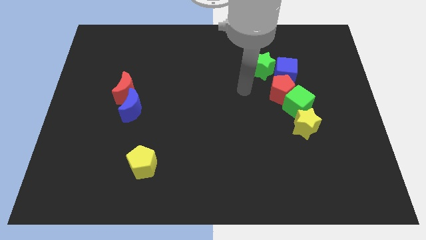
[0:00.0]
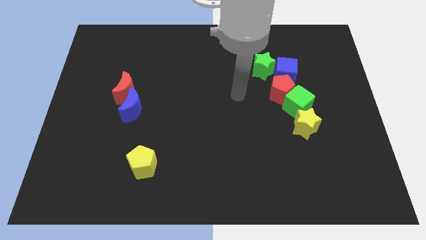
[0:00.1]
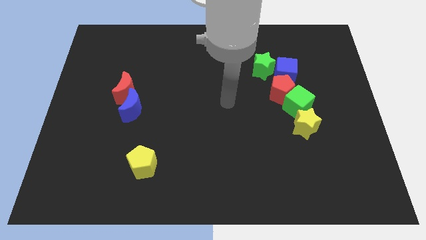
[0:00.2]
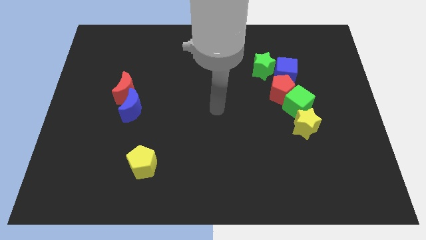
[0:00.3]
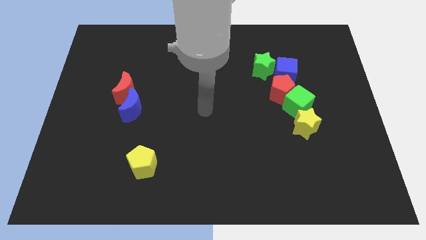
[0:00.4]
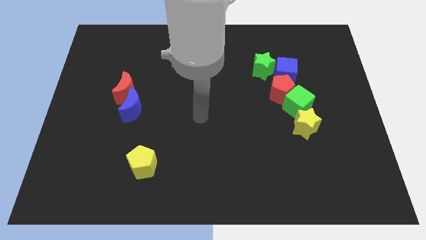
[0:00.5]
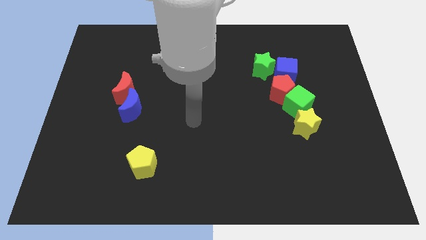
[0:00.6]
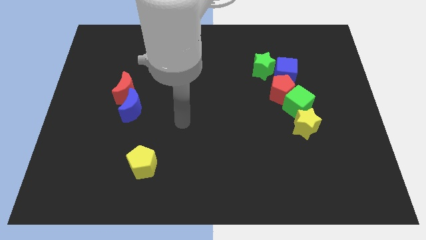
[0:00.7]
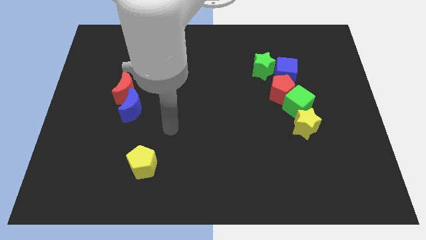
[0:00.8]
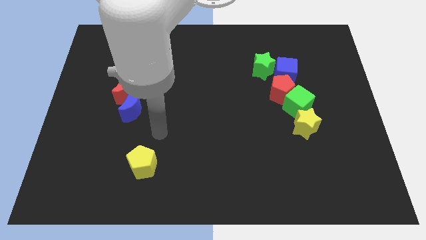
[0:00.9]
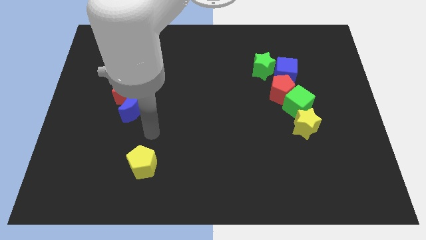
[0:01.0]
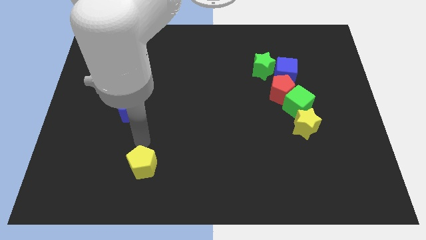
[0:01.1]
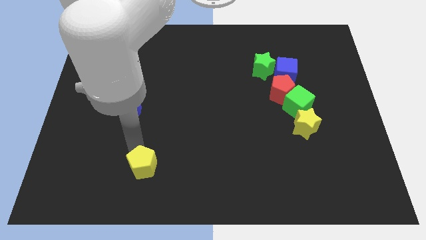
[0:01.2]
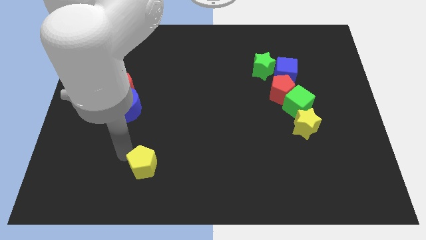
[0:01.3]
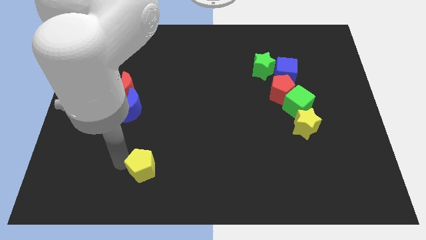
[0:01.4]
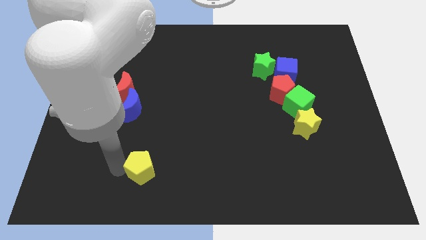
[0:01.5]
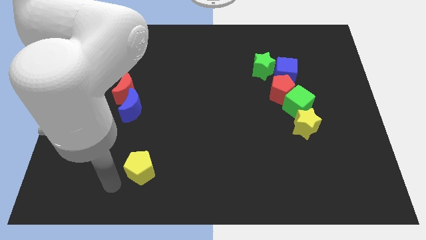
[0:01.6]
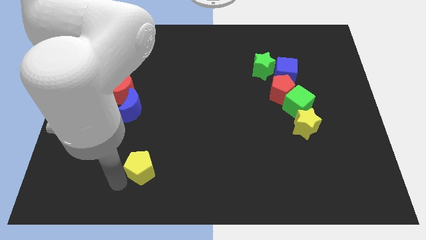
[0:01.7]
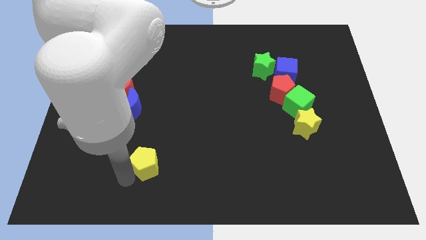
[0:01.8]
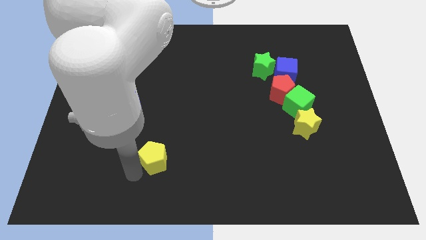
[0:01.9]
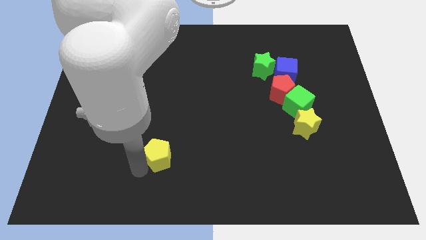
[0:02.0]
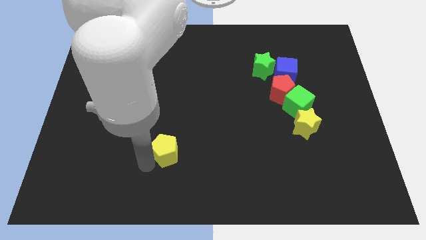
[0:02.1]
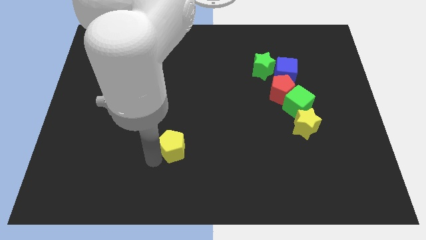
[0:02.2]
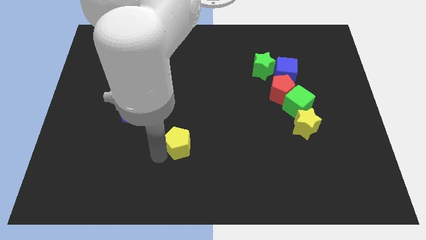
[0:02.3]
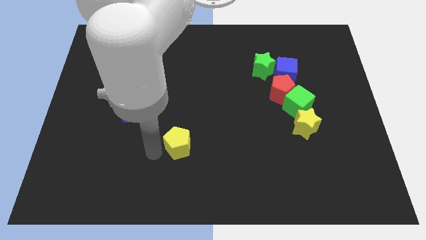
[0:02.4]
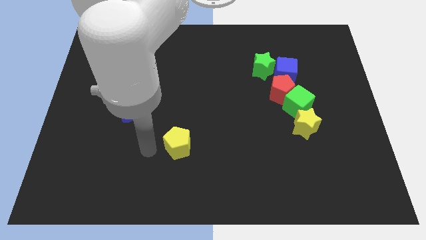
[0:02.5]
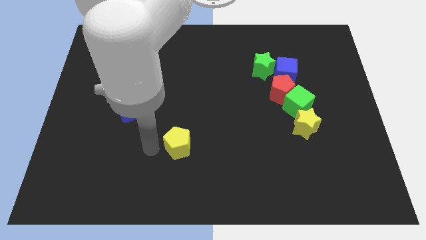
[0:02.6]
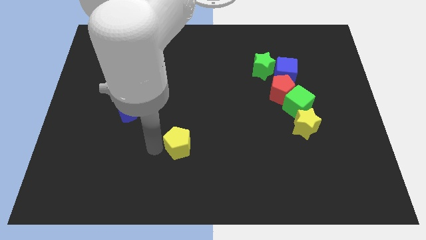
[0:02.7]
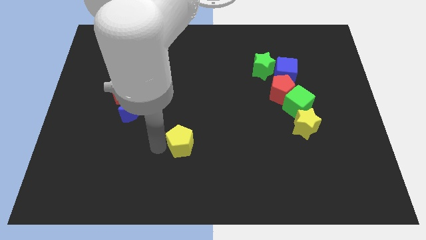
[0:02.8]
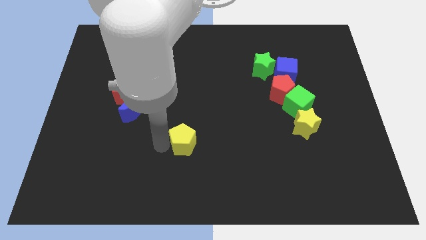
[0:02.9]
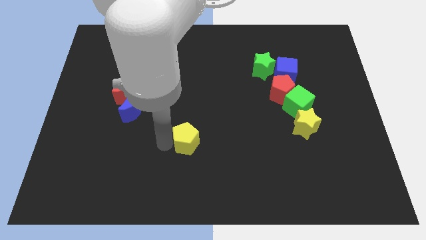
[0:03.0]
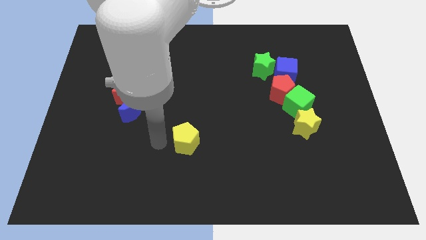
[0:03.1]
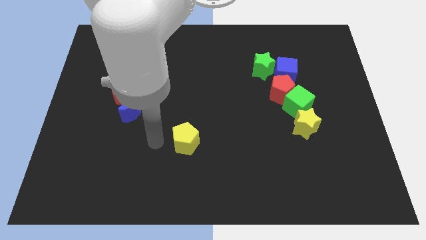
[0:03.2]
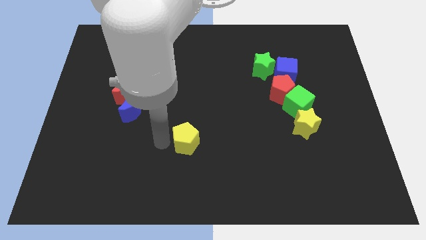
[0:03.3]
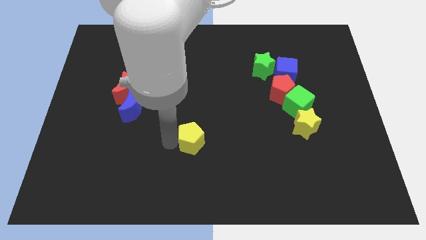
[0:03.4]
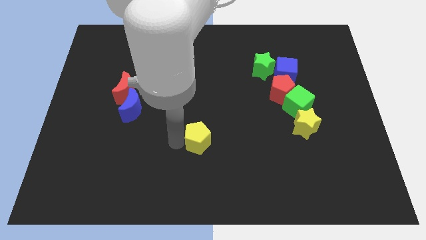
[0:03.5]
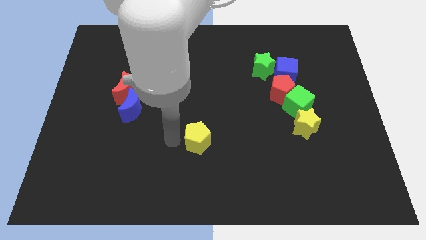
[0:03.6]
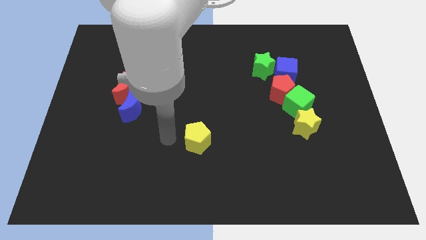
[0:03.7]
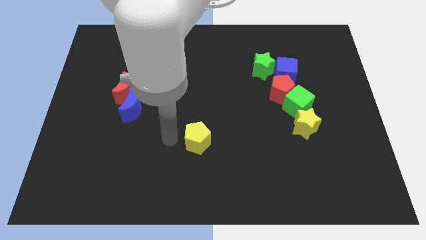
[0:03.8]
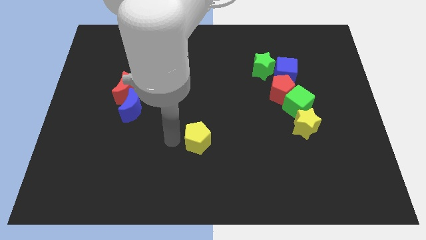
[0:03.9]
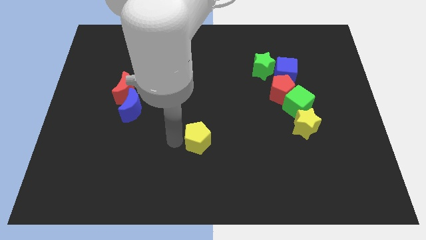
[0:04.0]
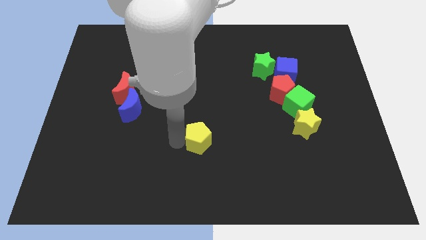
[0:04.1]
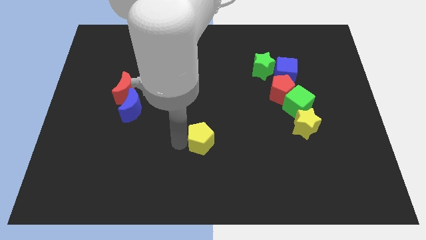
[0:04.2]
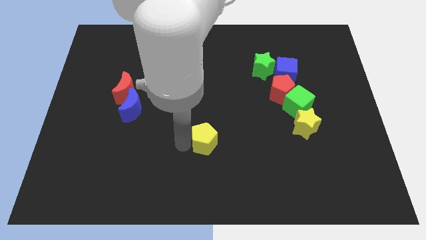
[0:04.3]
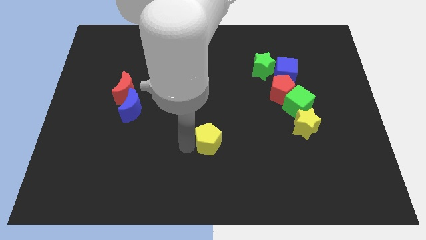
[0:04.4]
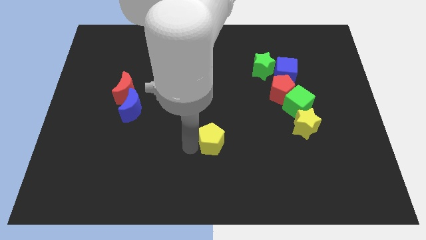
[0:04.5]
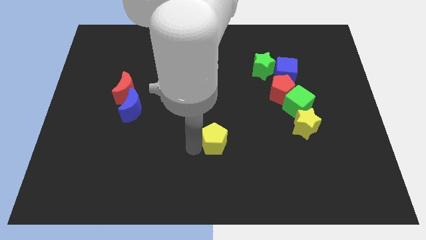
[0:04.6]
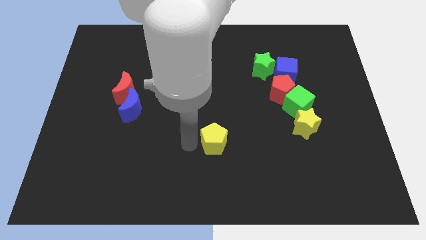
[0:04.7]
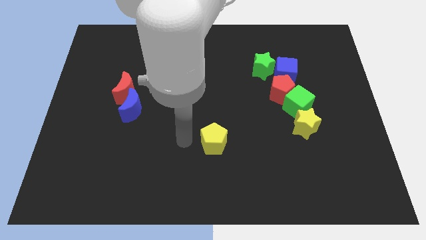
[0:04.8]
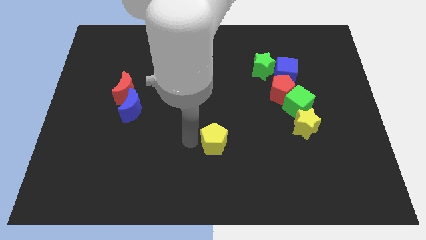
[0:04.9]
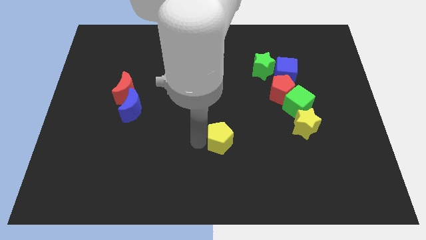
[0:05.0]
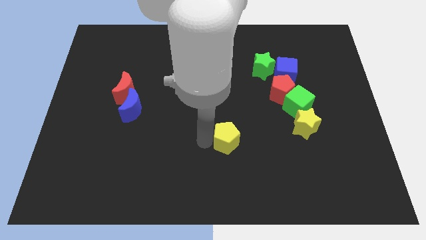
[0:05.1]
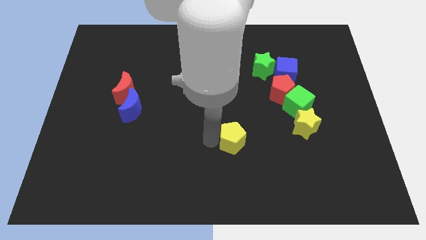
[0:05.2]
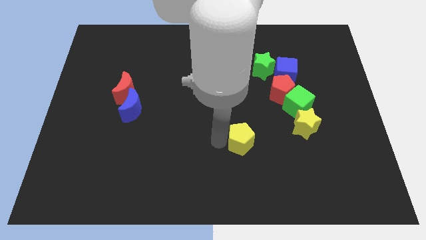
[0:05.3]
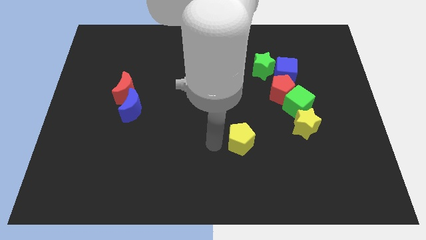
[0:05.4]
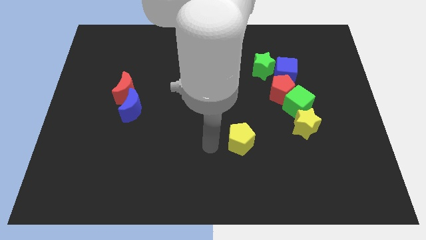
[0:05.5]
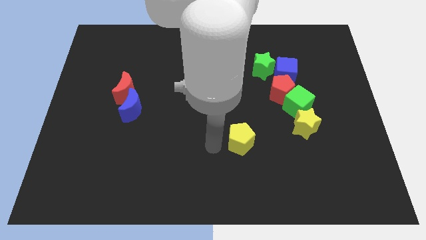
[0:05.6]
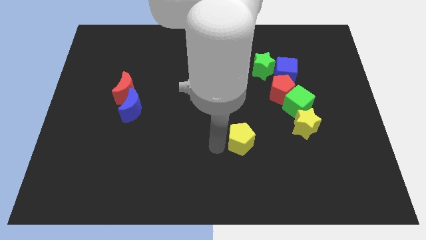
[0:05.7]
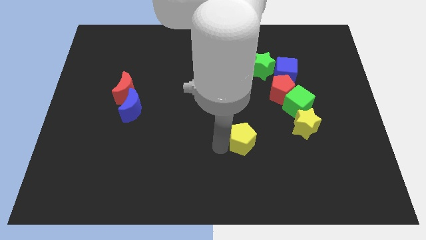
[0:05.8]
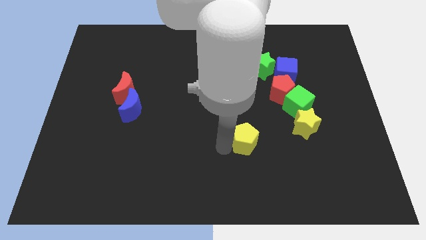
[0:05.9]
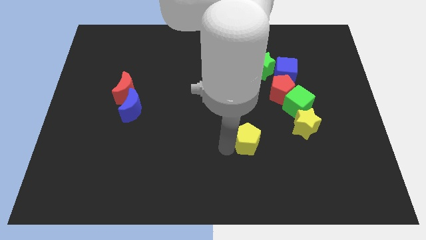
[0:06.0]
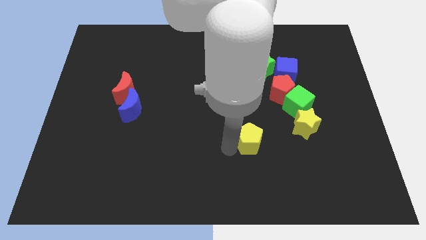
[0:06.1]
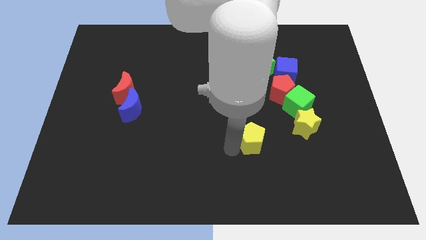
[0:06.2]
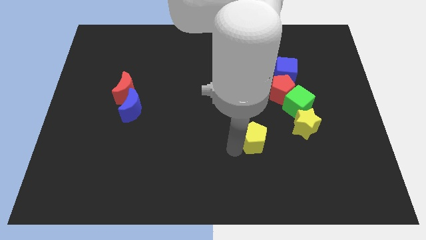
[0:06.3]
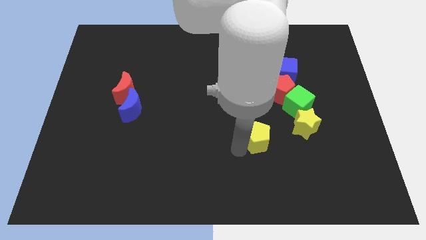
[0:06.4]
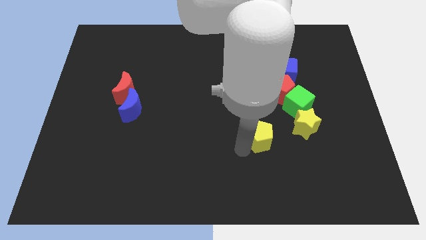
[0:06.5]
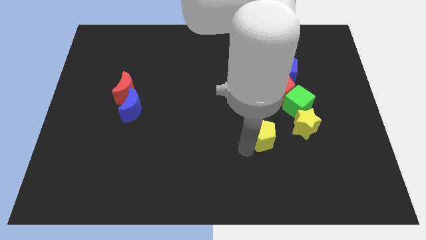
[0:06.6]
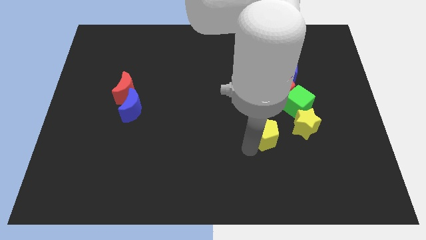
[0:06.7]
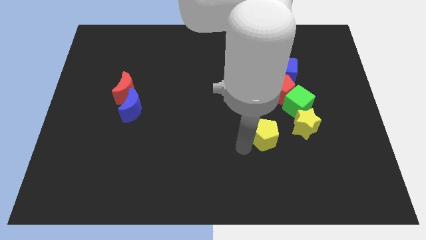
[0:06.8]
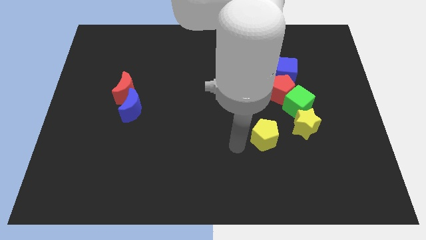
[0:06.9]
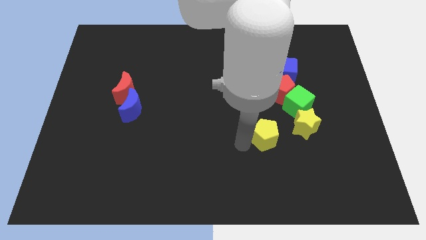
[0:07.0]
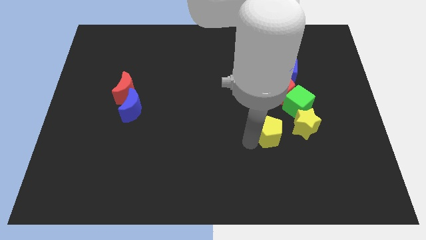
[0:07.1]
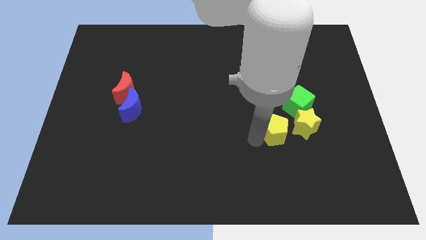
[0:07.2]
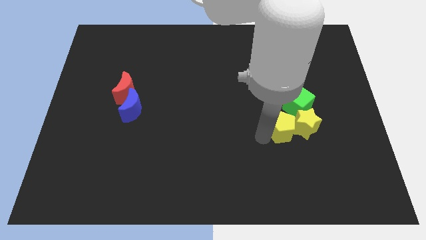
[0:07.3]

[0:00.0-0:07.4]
slide the yellow pentagon towards the yellow star
